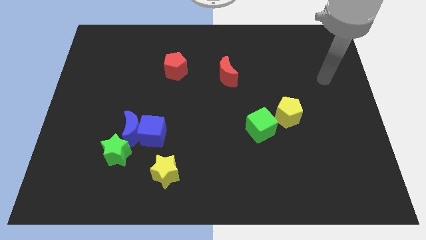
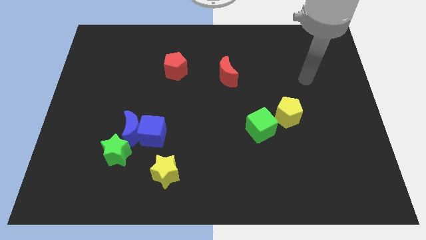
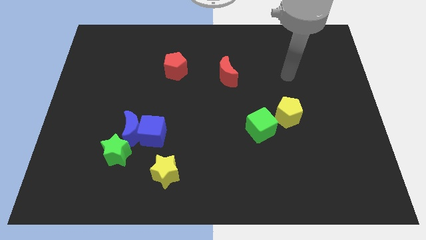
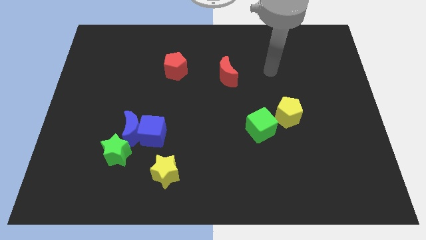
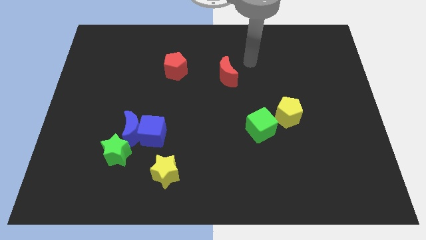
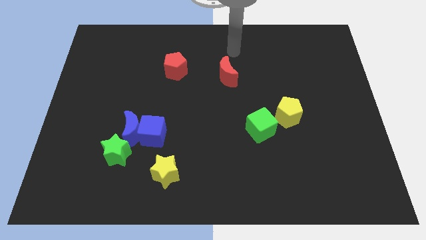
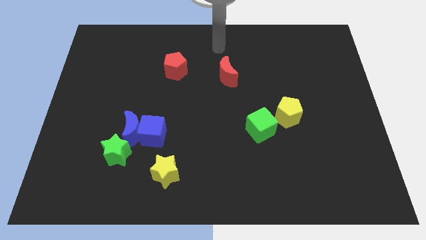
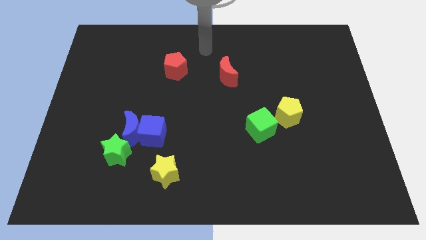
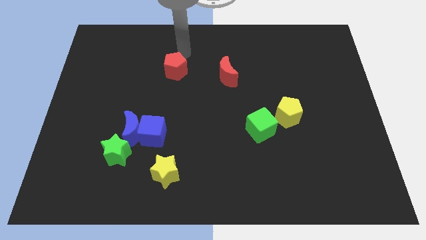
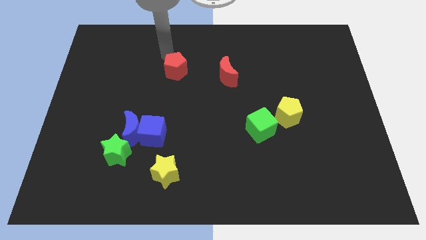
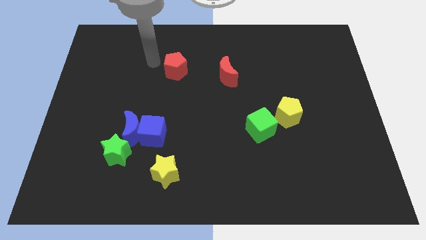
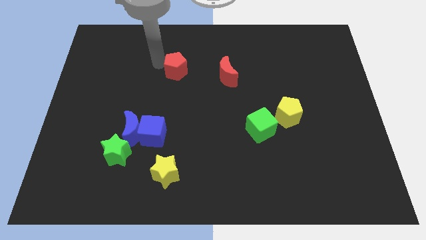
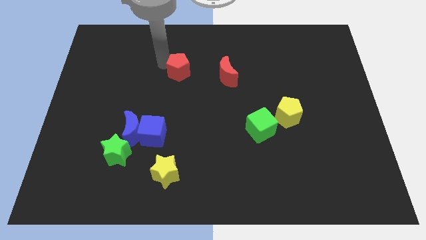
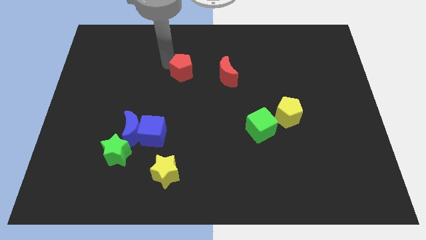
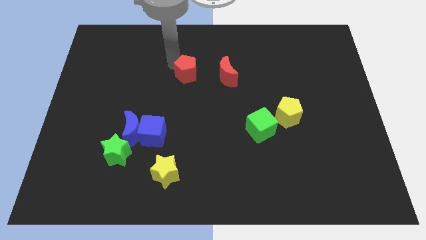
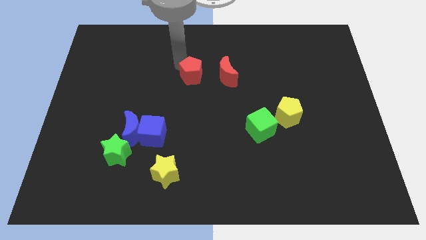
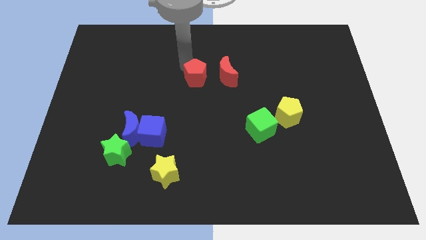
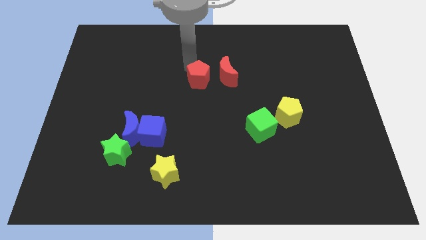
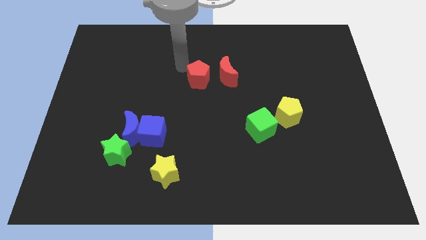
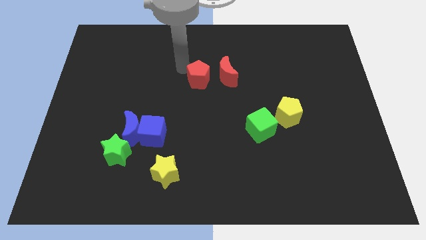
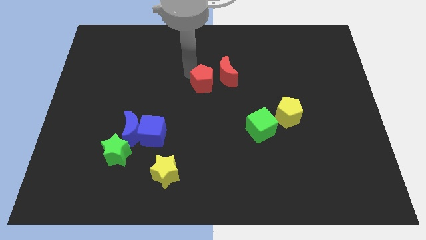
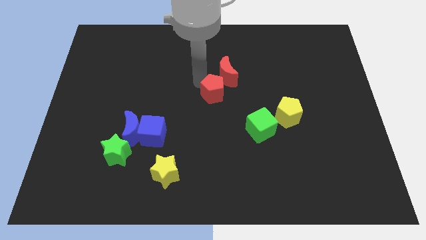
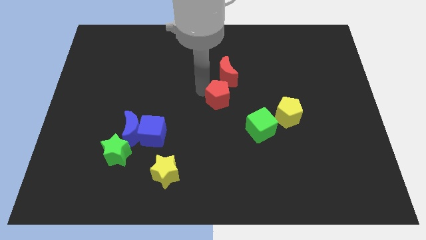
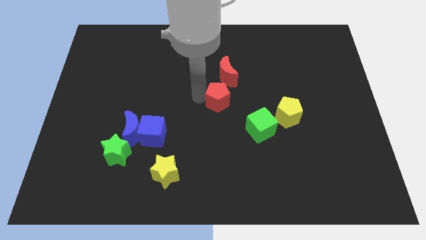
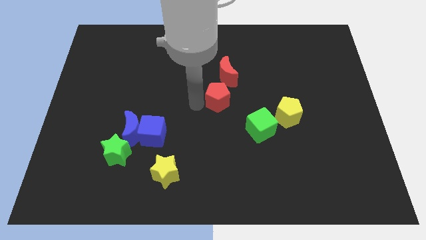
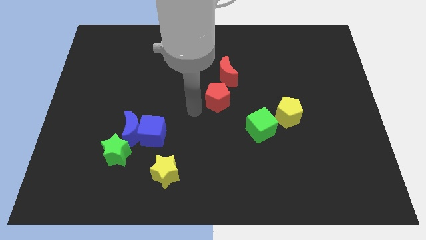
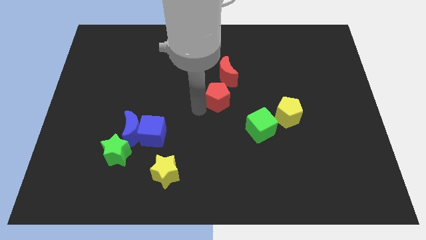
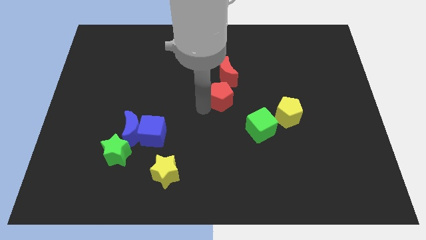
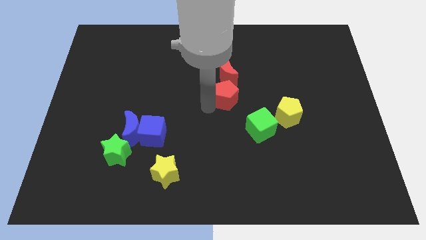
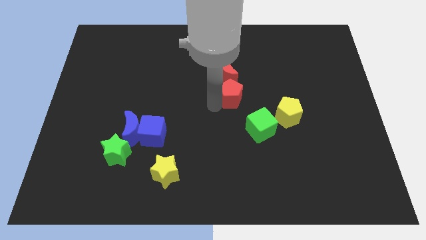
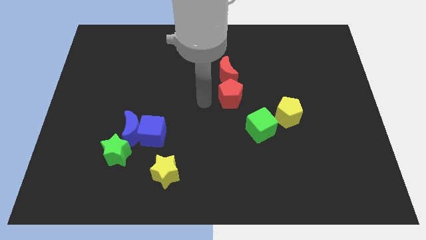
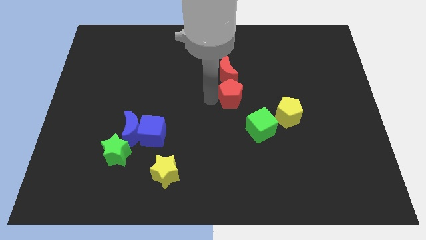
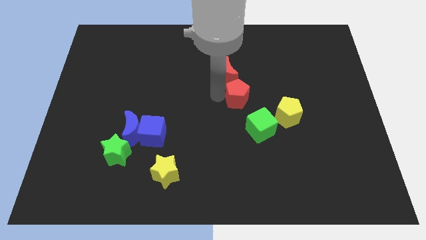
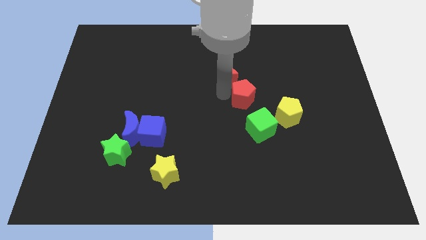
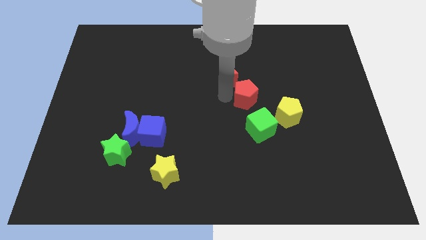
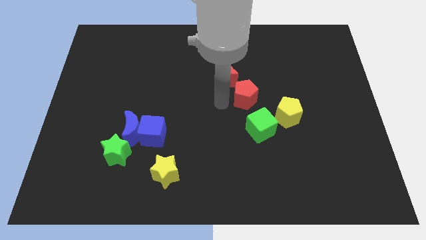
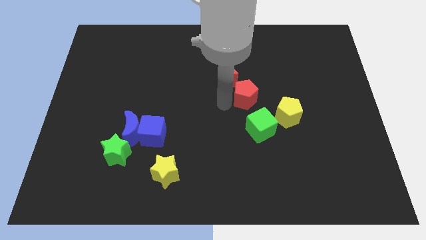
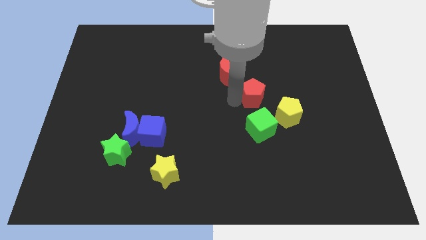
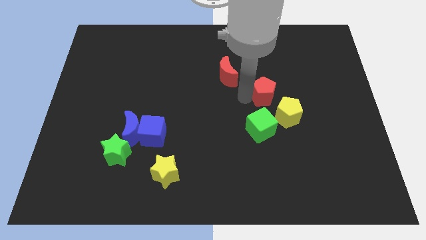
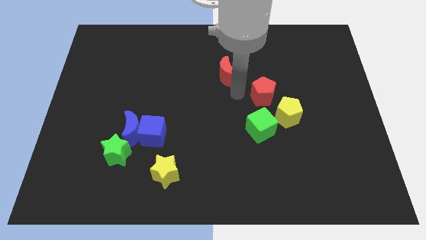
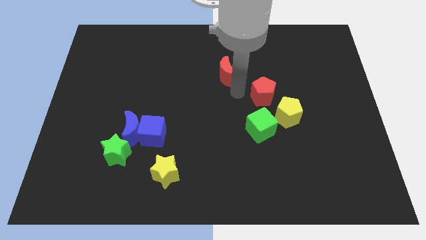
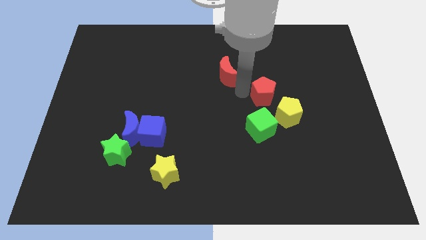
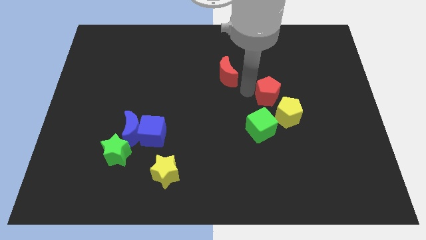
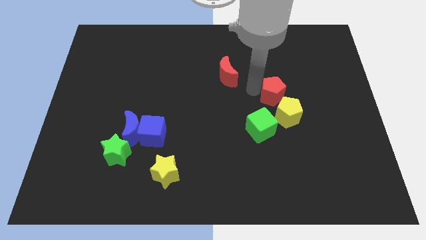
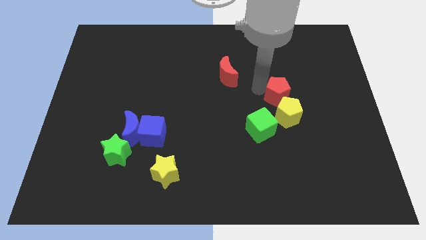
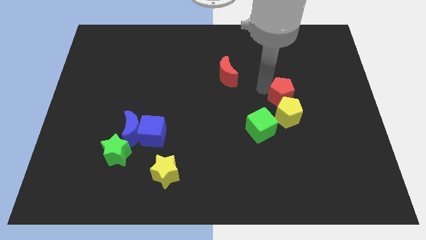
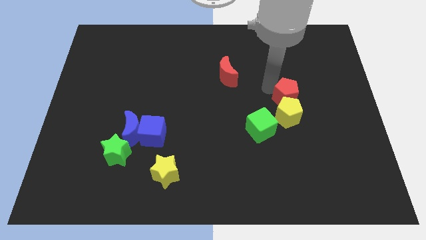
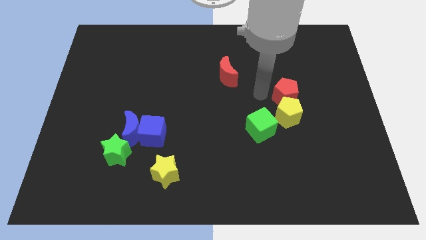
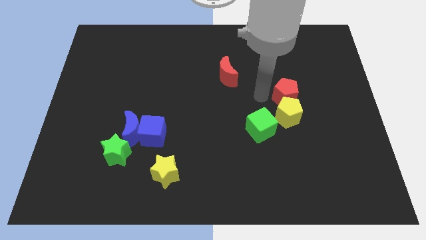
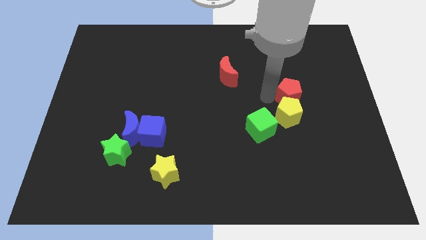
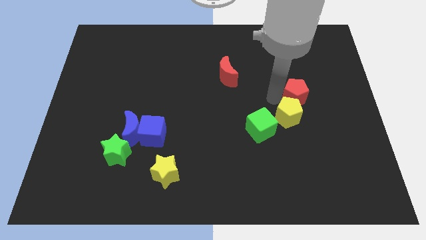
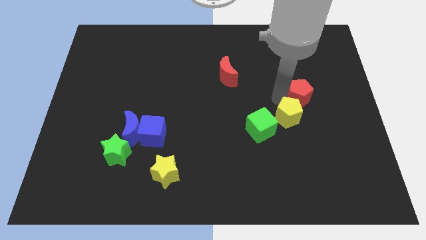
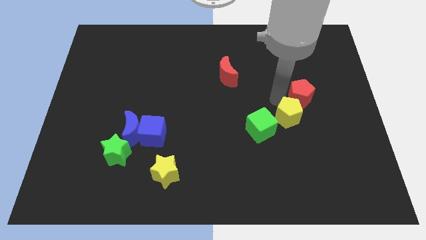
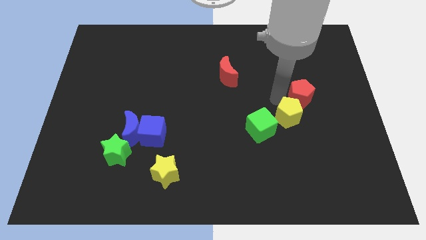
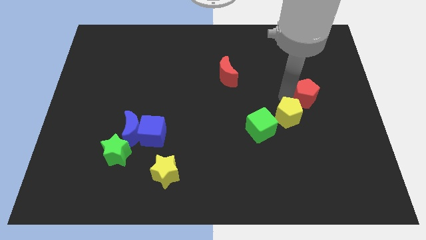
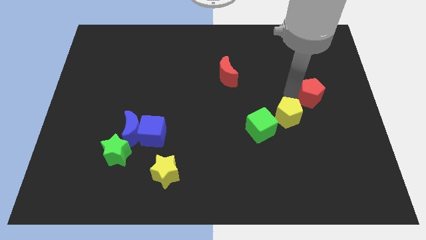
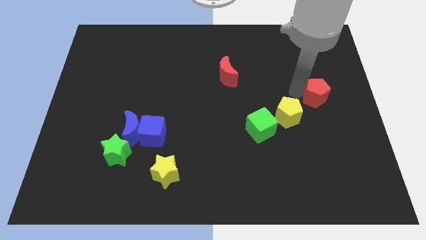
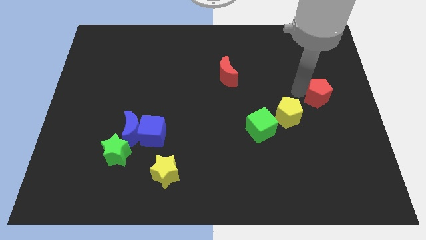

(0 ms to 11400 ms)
slide the red pentagon to the center right
